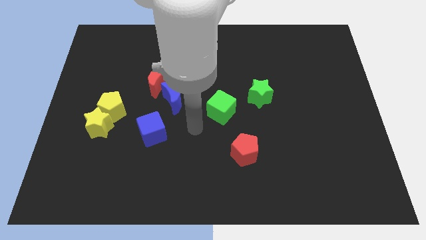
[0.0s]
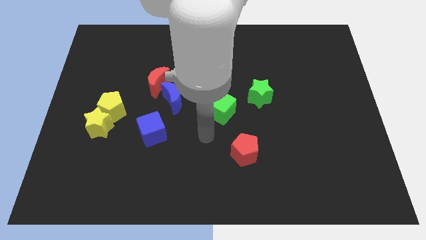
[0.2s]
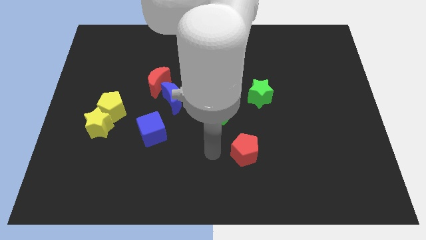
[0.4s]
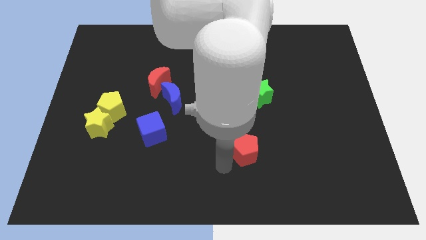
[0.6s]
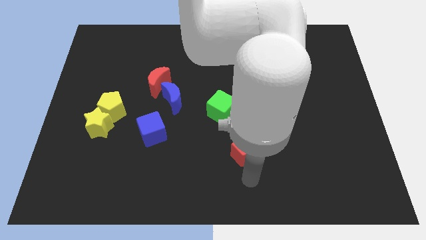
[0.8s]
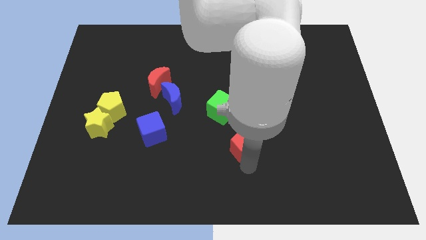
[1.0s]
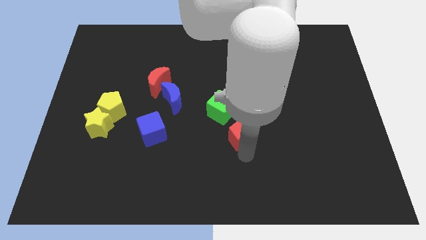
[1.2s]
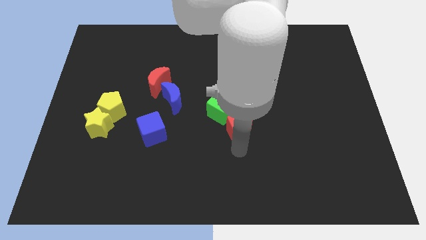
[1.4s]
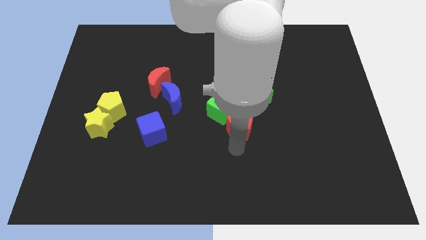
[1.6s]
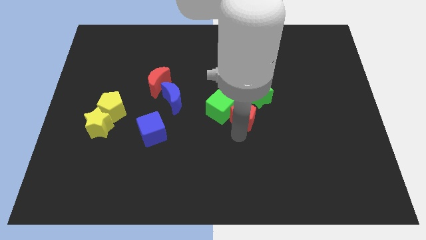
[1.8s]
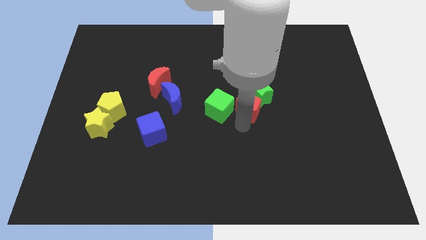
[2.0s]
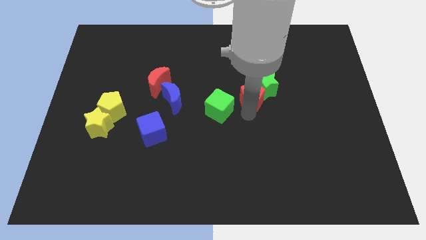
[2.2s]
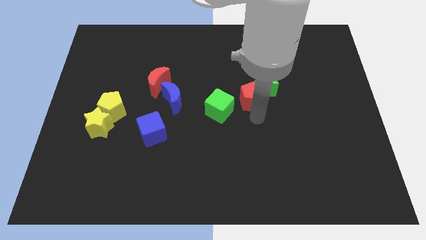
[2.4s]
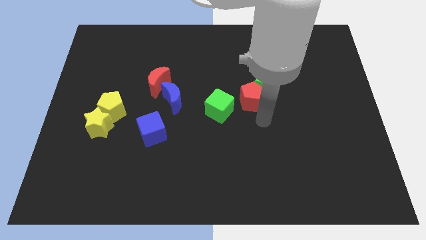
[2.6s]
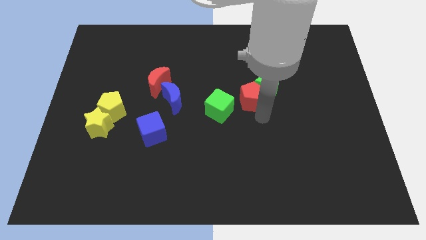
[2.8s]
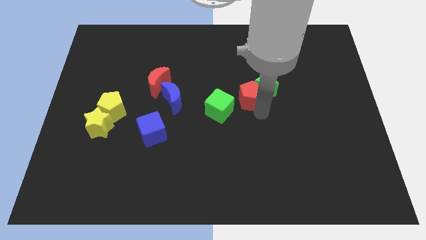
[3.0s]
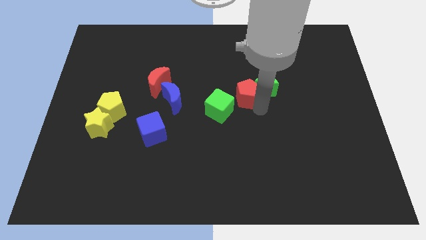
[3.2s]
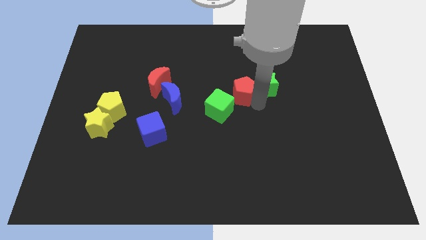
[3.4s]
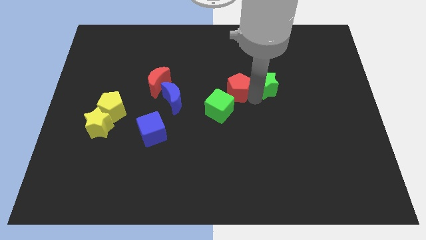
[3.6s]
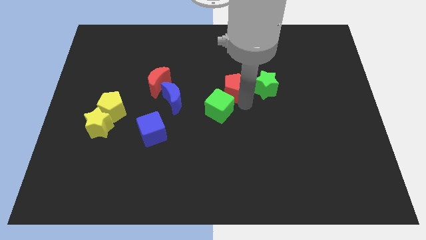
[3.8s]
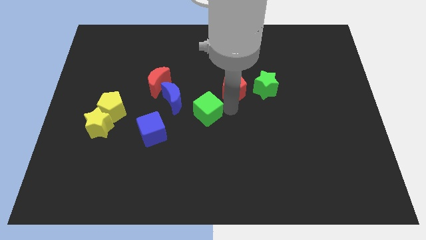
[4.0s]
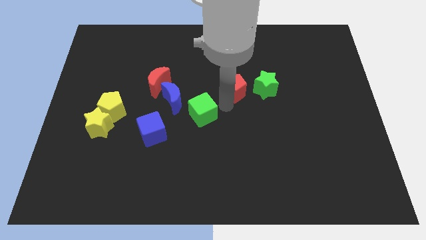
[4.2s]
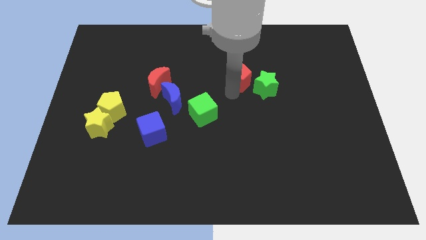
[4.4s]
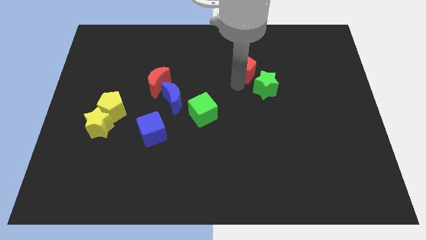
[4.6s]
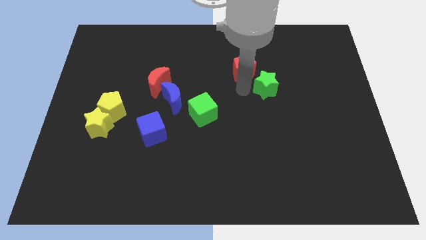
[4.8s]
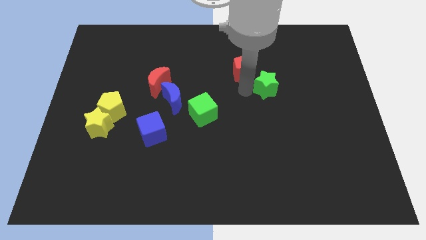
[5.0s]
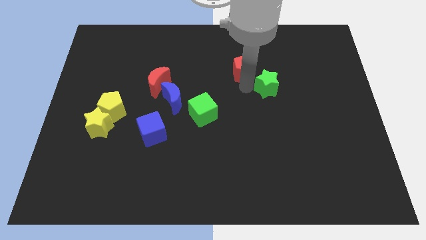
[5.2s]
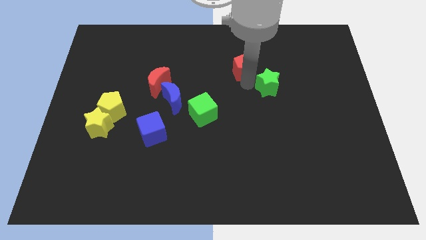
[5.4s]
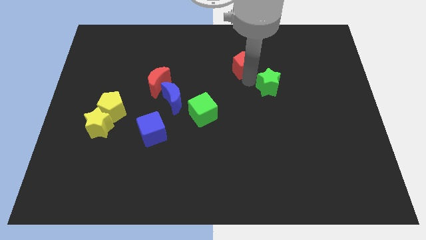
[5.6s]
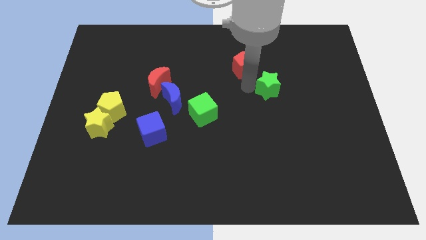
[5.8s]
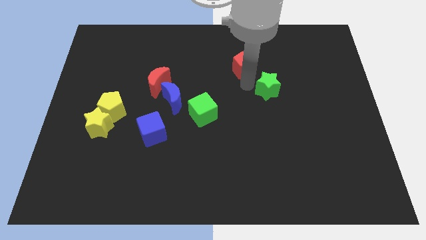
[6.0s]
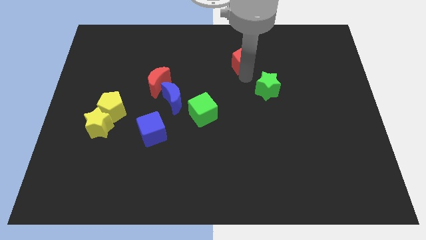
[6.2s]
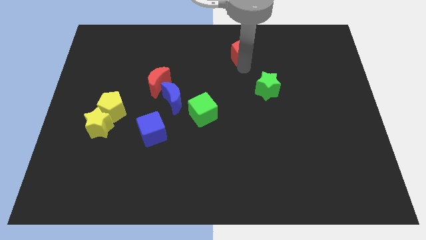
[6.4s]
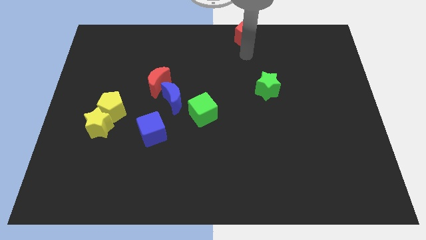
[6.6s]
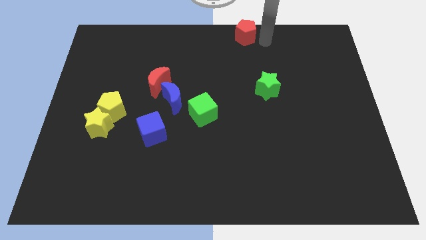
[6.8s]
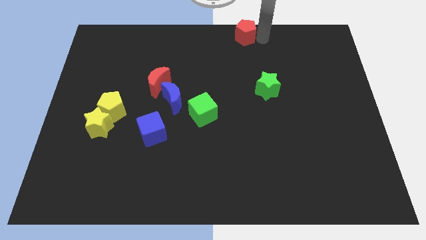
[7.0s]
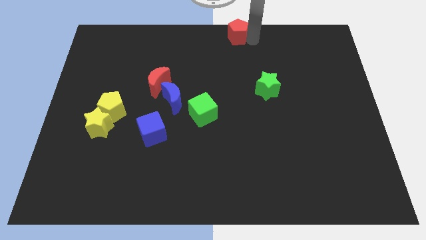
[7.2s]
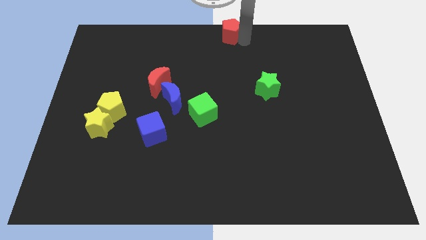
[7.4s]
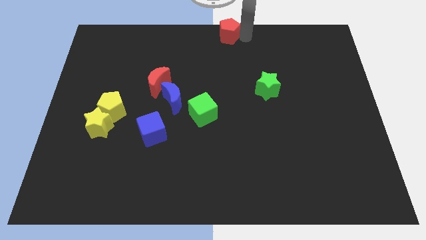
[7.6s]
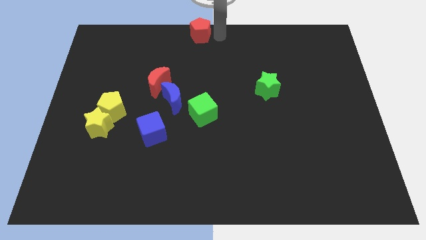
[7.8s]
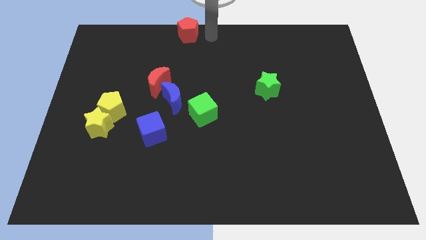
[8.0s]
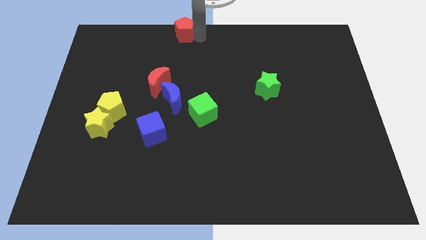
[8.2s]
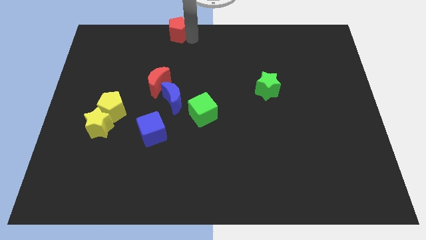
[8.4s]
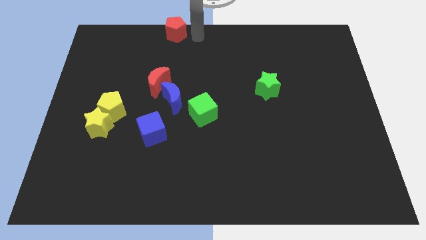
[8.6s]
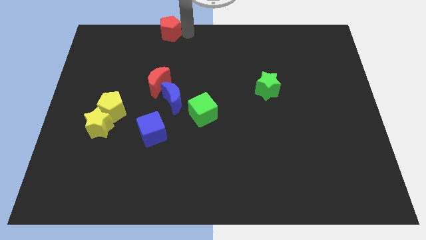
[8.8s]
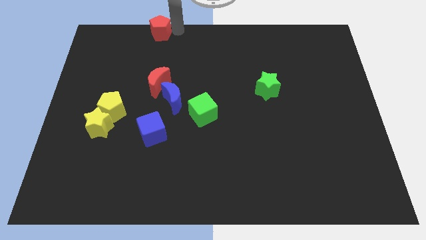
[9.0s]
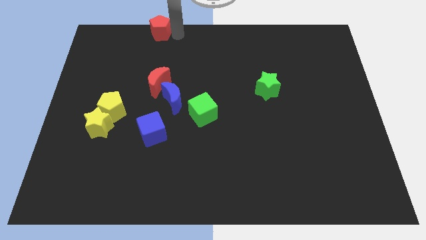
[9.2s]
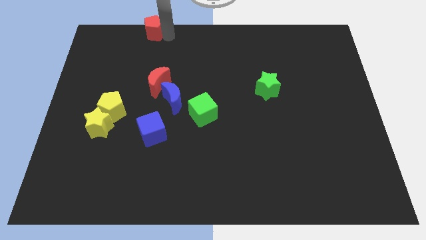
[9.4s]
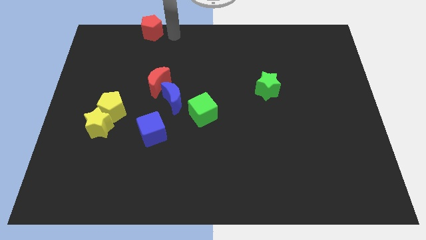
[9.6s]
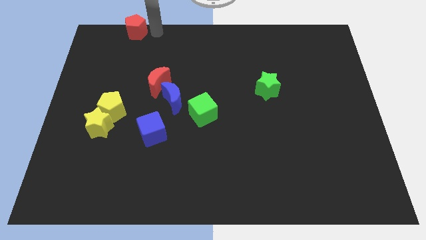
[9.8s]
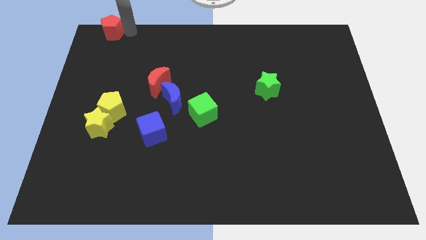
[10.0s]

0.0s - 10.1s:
slide the red pentagon to the top left

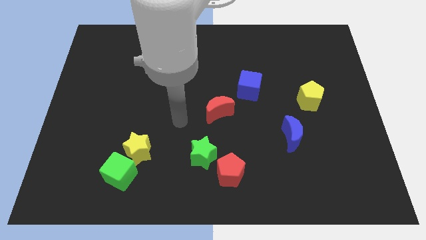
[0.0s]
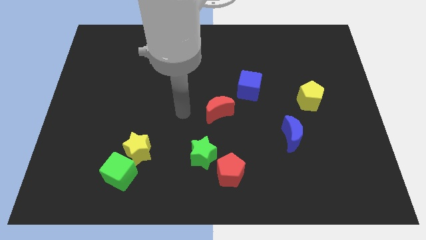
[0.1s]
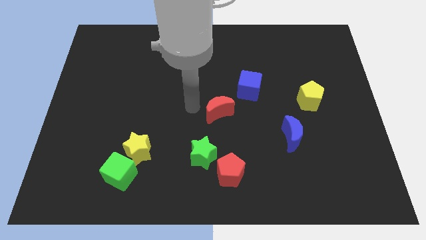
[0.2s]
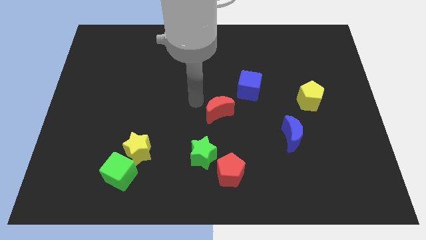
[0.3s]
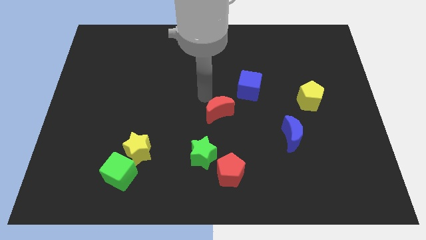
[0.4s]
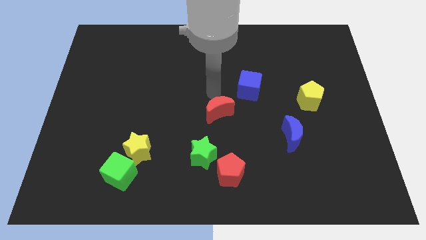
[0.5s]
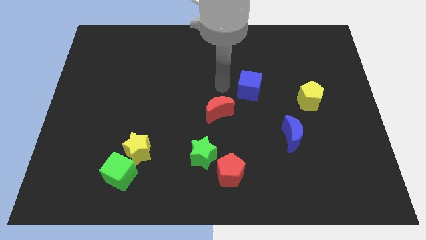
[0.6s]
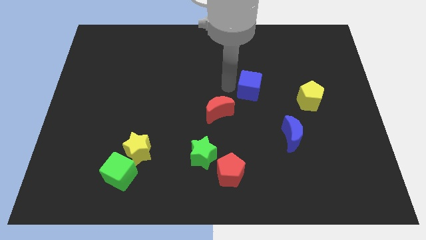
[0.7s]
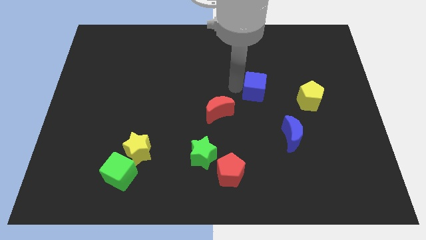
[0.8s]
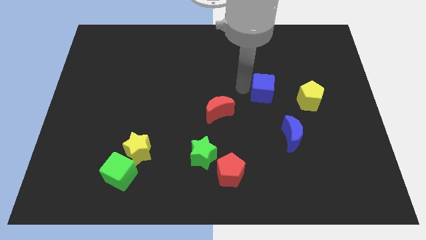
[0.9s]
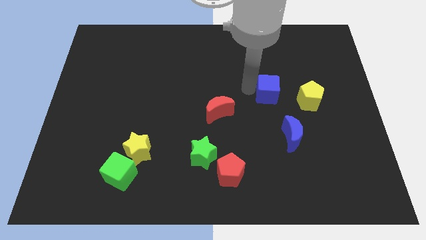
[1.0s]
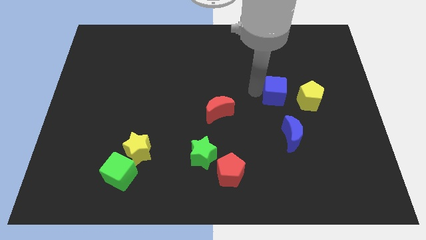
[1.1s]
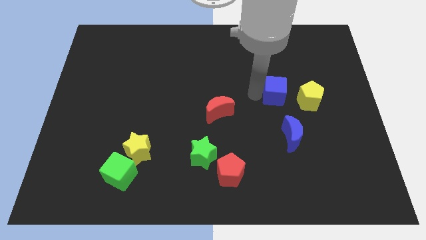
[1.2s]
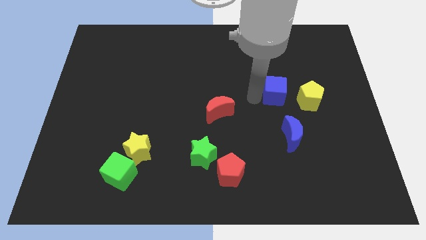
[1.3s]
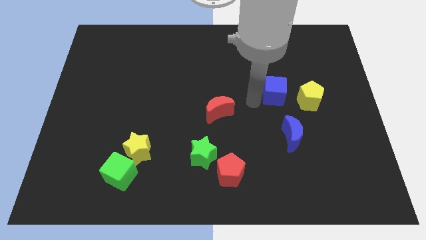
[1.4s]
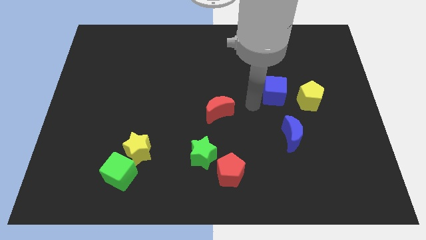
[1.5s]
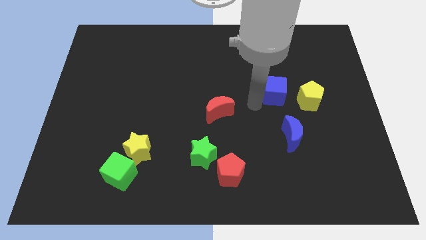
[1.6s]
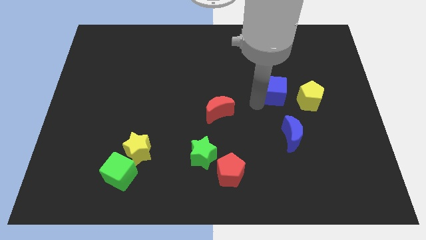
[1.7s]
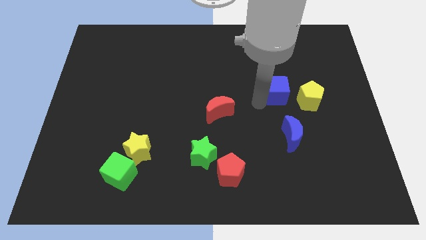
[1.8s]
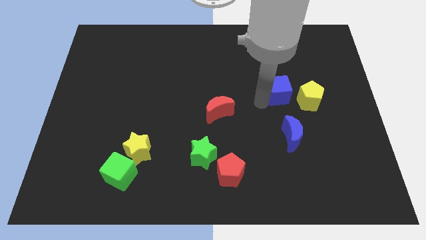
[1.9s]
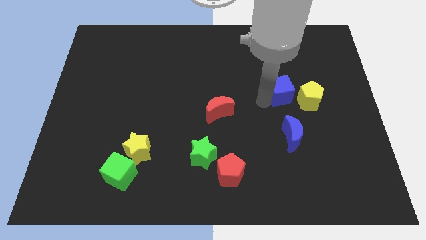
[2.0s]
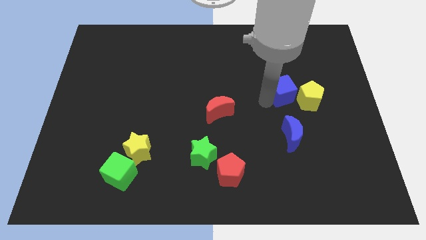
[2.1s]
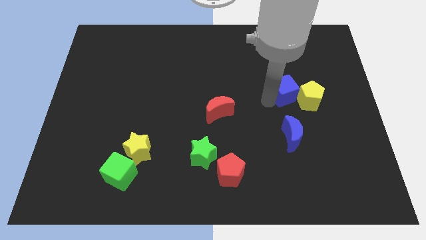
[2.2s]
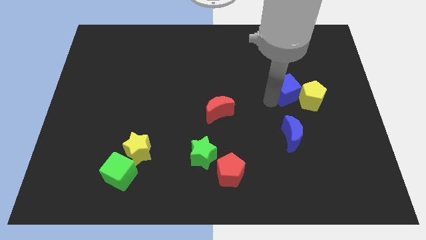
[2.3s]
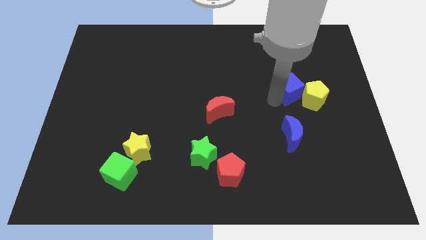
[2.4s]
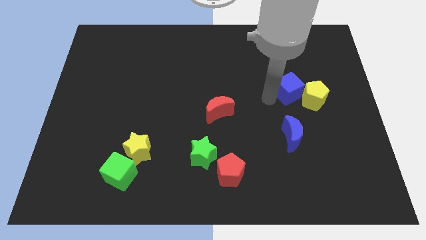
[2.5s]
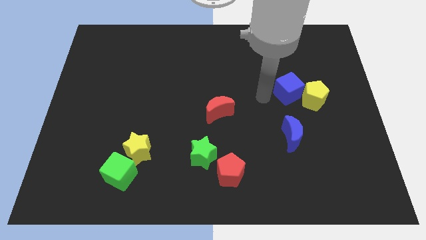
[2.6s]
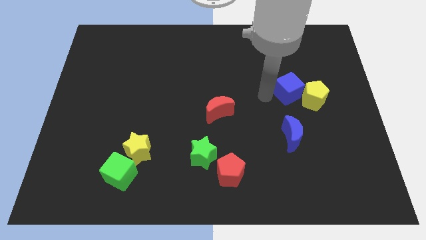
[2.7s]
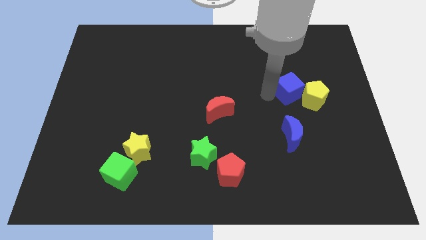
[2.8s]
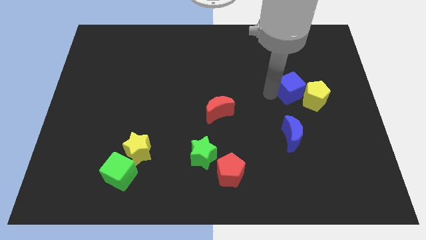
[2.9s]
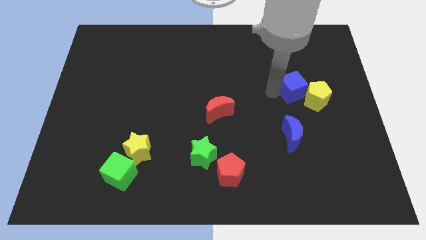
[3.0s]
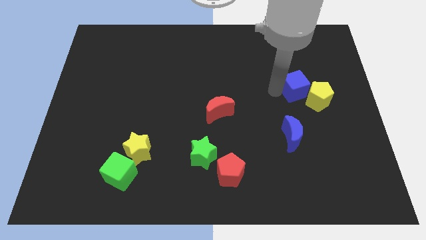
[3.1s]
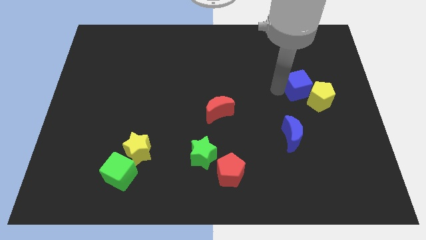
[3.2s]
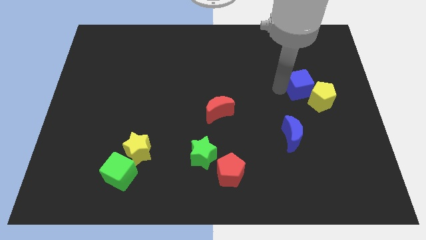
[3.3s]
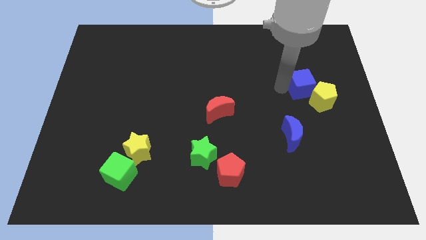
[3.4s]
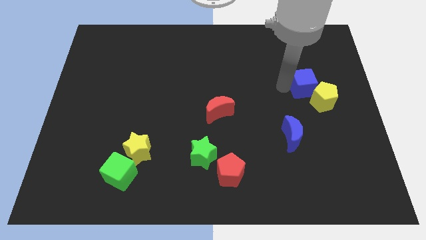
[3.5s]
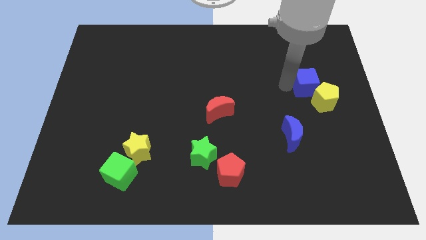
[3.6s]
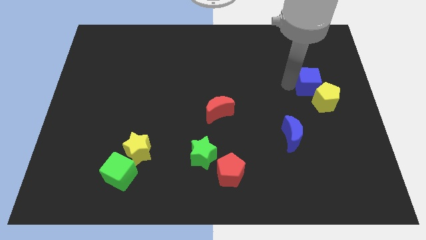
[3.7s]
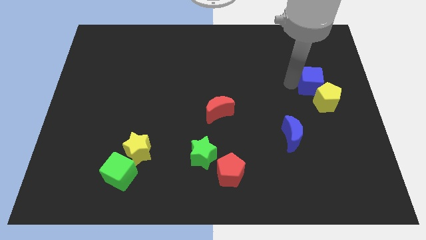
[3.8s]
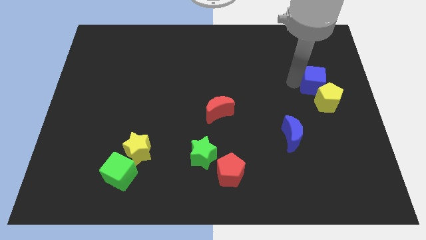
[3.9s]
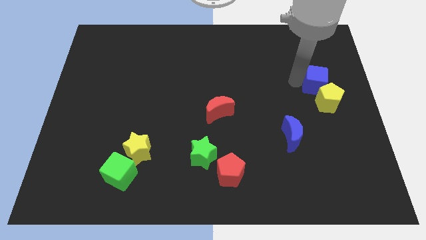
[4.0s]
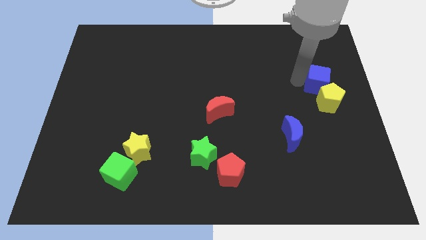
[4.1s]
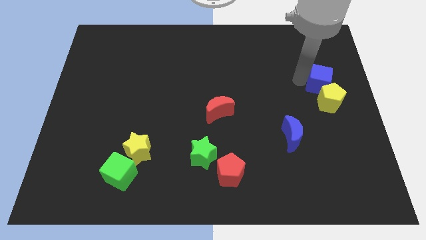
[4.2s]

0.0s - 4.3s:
put the blue cube to the center right
